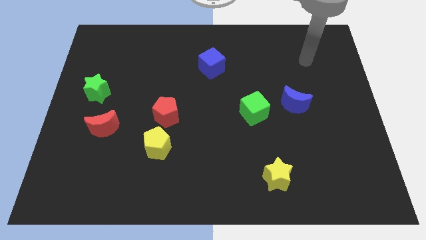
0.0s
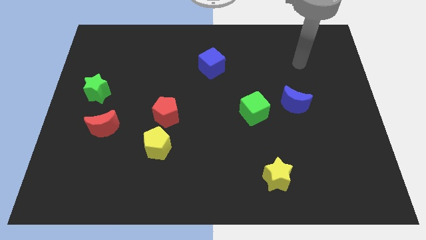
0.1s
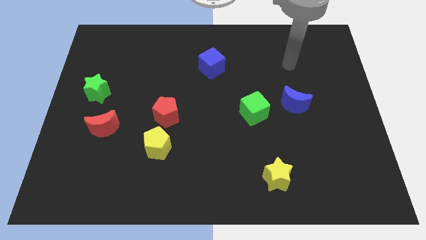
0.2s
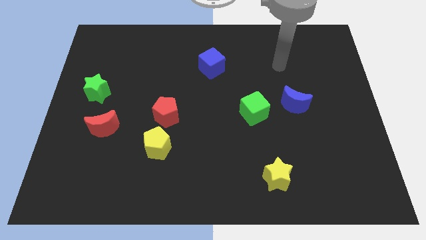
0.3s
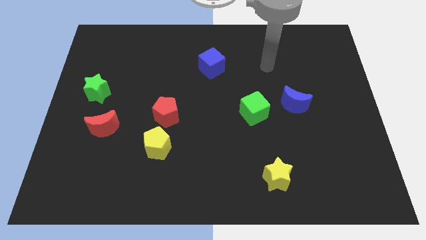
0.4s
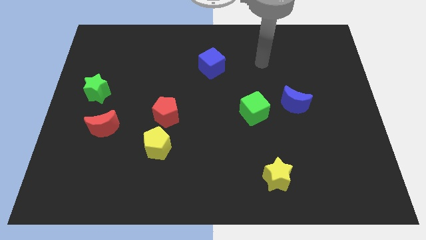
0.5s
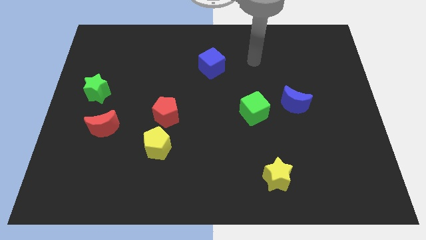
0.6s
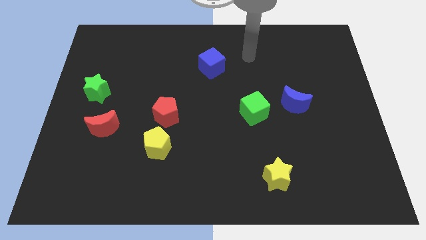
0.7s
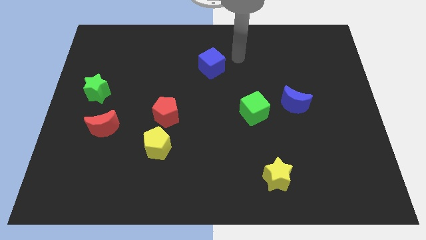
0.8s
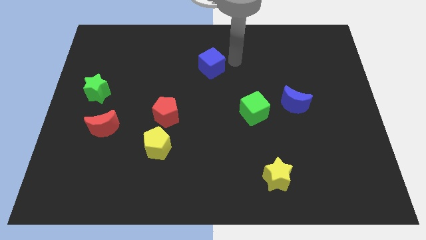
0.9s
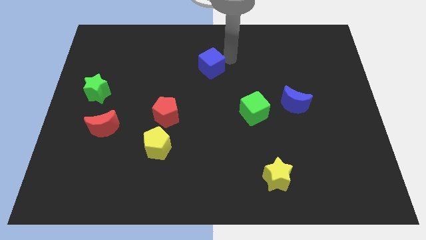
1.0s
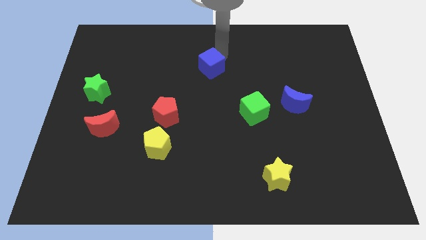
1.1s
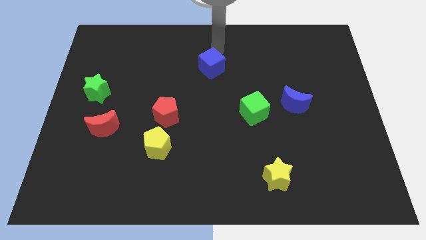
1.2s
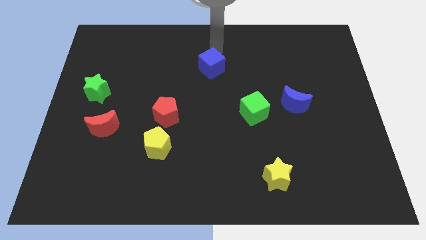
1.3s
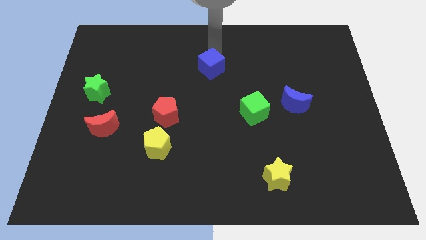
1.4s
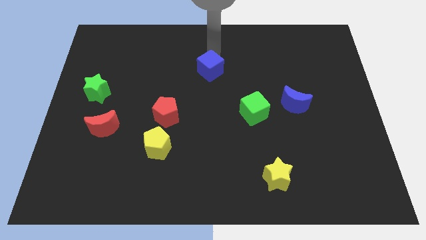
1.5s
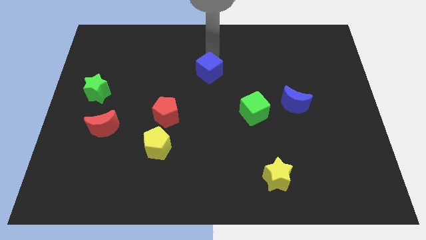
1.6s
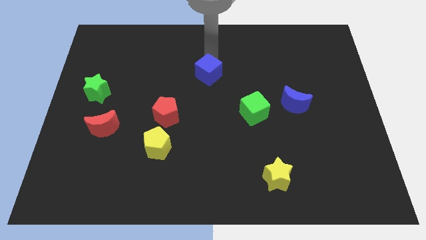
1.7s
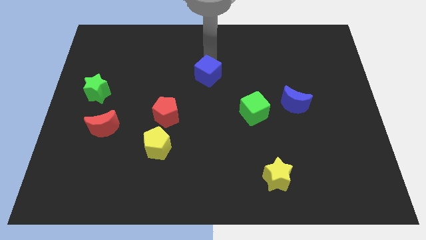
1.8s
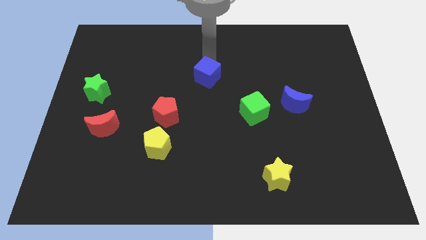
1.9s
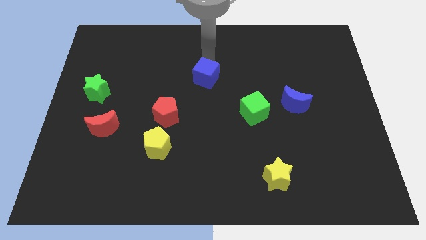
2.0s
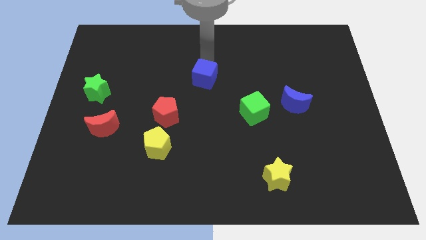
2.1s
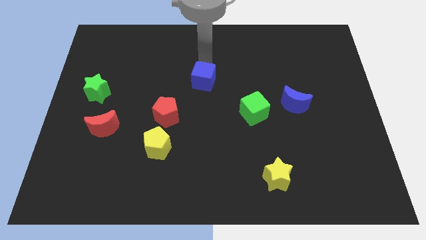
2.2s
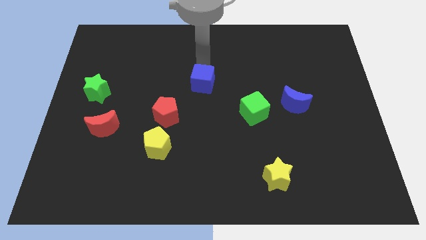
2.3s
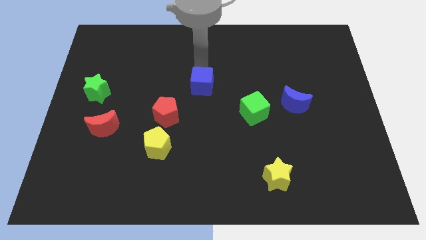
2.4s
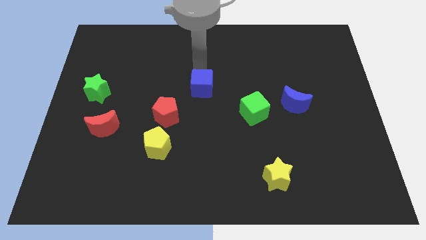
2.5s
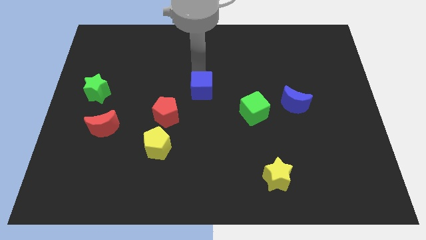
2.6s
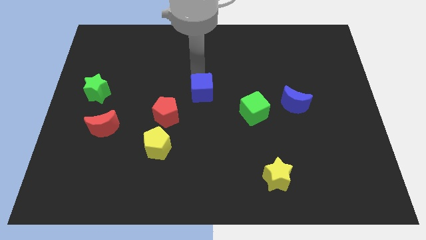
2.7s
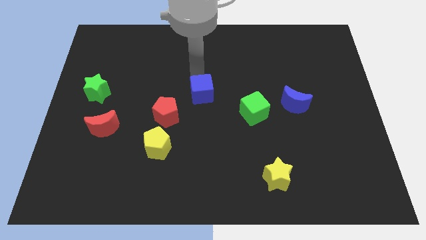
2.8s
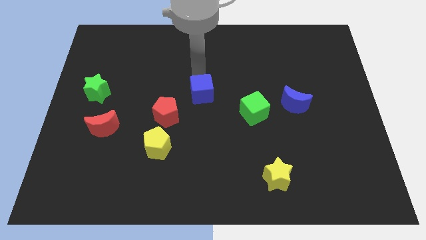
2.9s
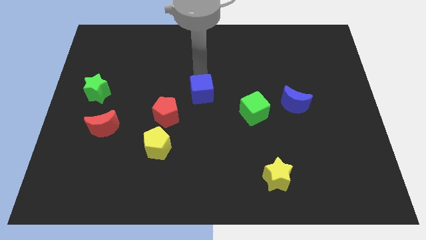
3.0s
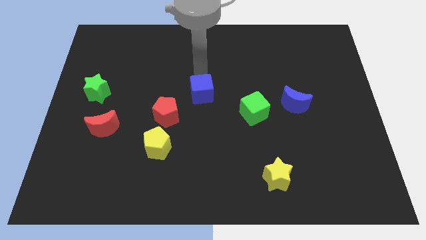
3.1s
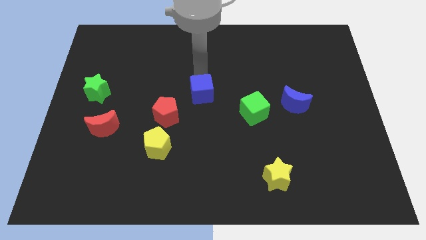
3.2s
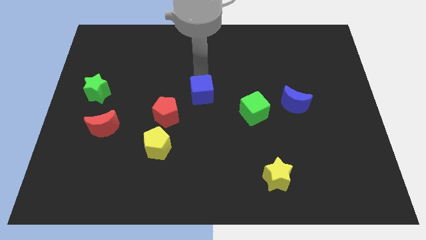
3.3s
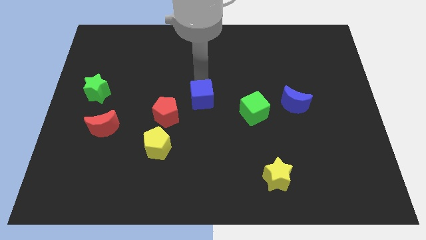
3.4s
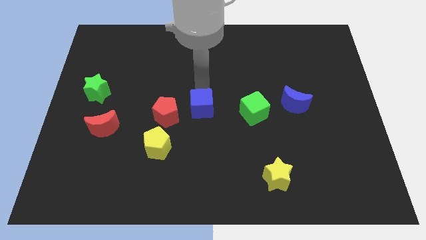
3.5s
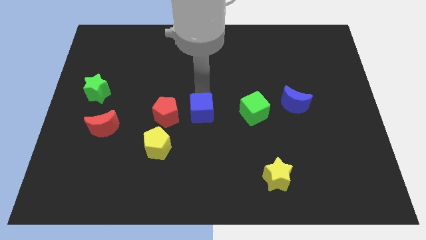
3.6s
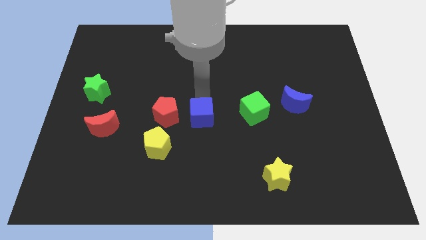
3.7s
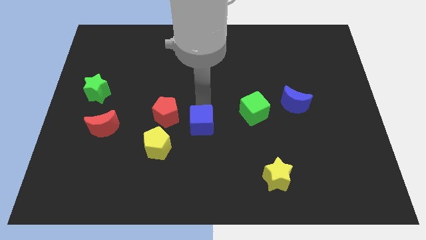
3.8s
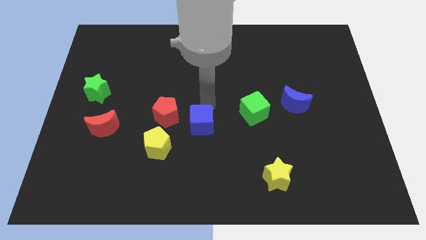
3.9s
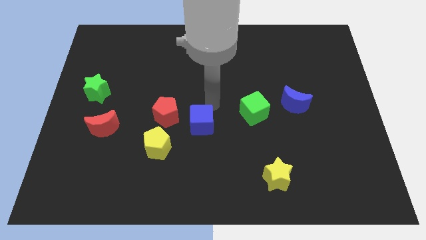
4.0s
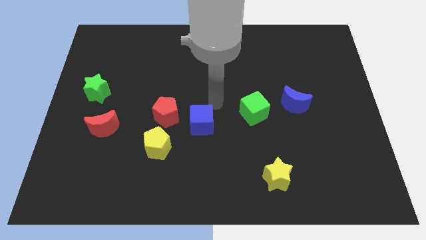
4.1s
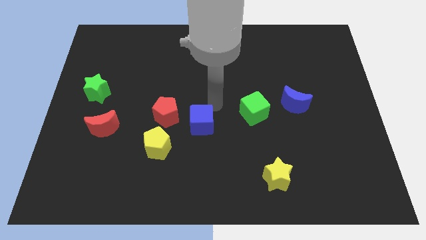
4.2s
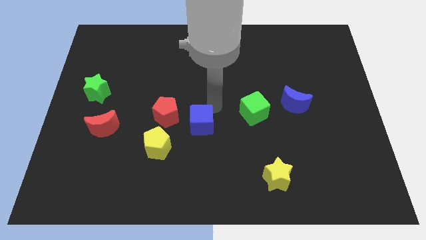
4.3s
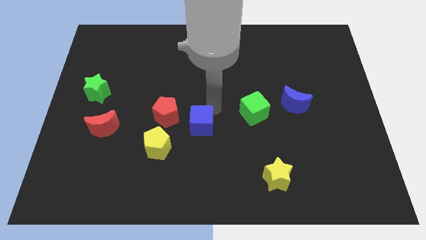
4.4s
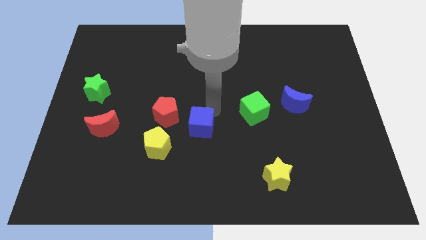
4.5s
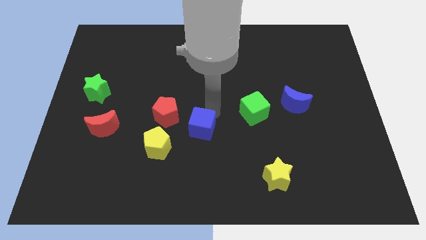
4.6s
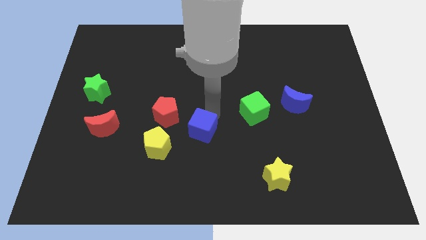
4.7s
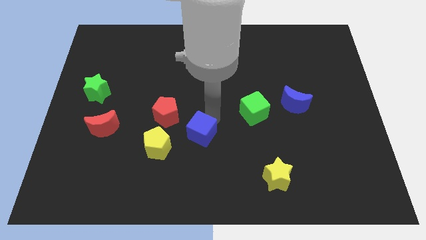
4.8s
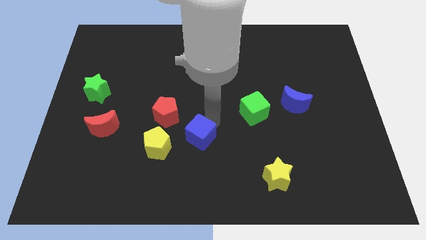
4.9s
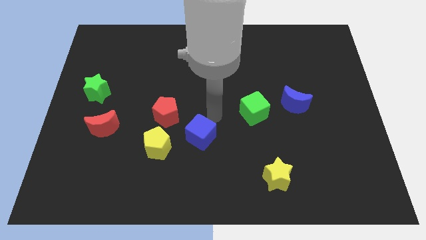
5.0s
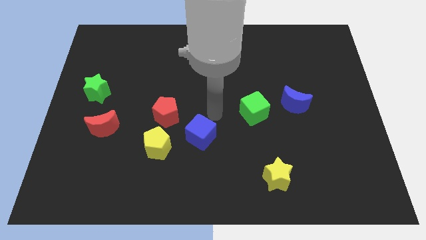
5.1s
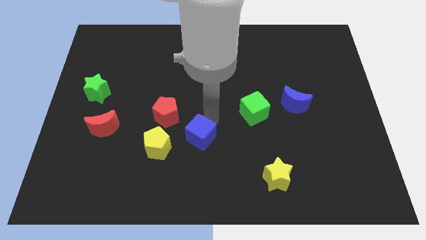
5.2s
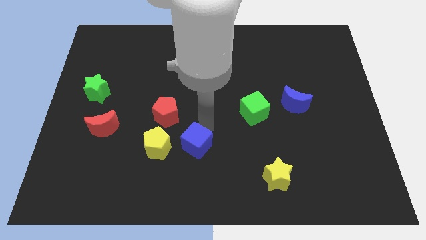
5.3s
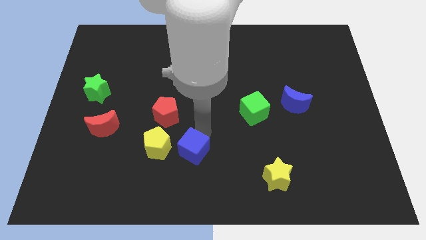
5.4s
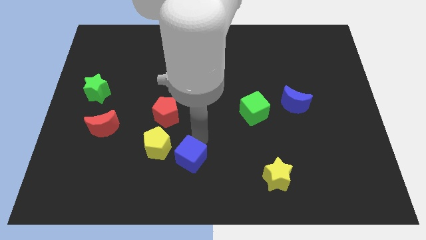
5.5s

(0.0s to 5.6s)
slide the blue cube diagonally down and to the right of the yellow pentagon

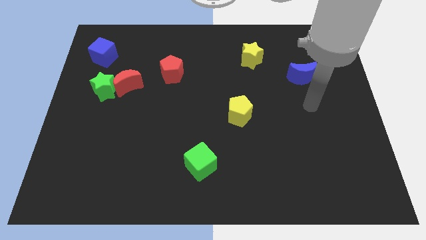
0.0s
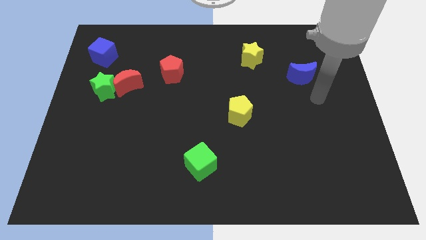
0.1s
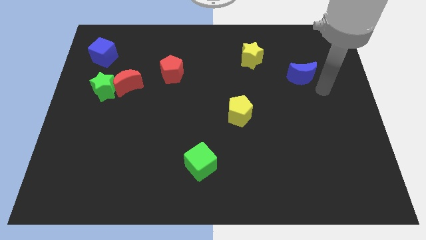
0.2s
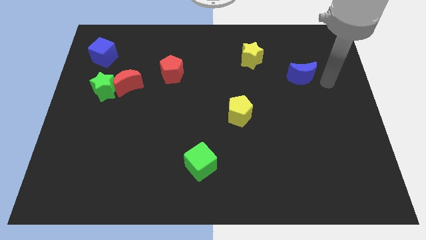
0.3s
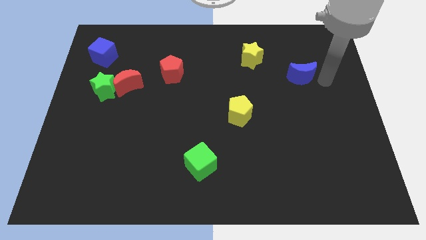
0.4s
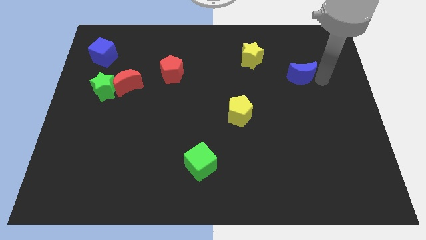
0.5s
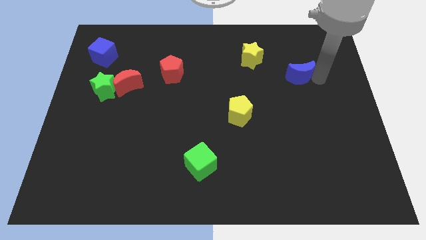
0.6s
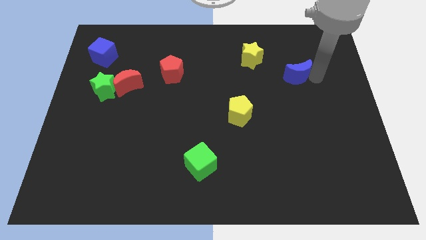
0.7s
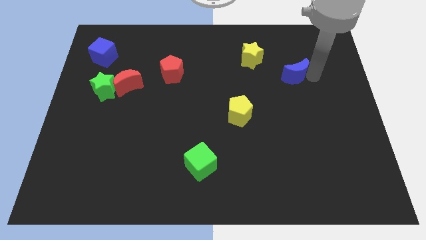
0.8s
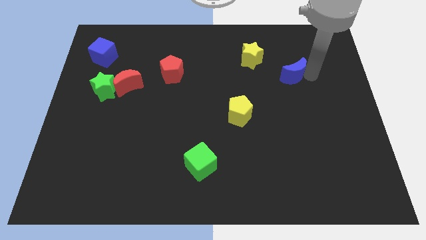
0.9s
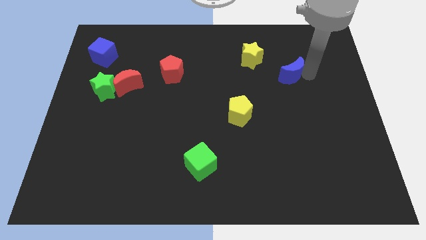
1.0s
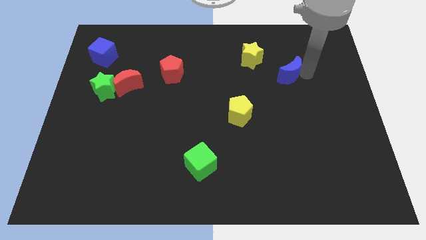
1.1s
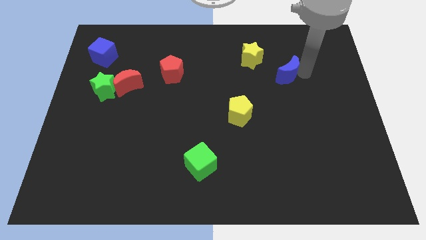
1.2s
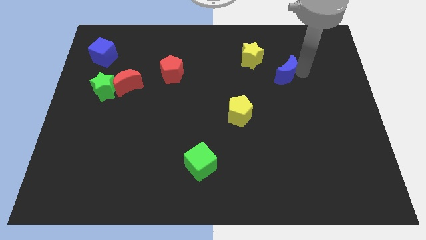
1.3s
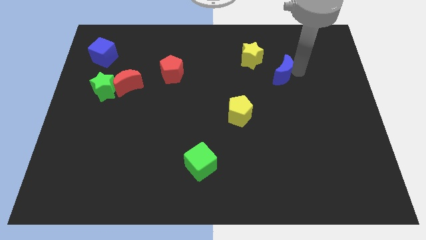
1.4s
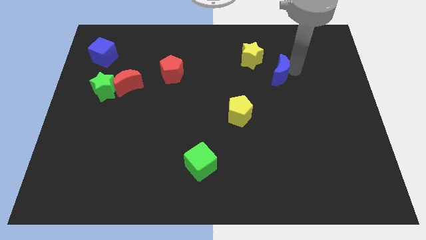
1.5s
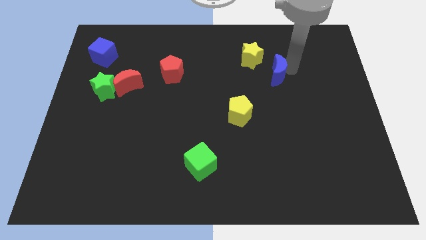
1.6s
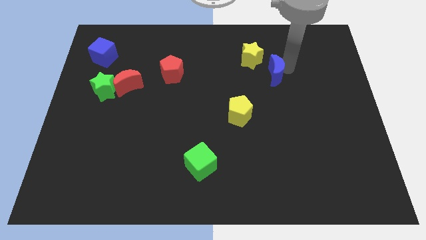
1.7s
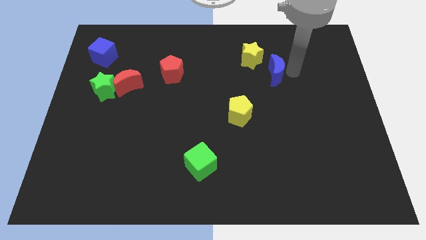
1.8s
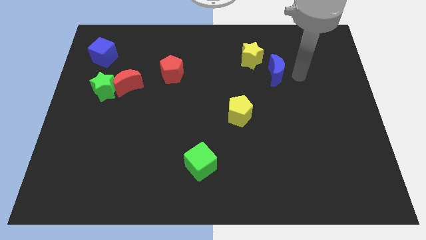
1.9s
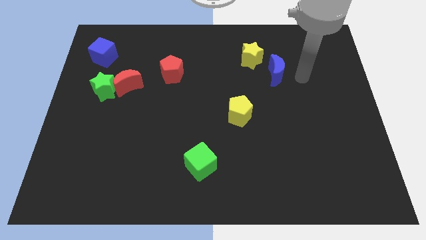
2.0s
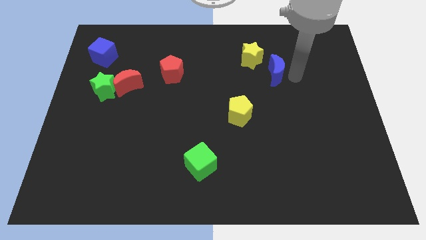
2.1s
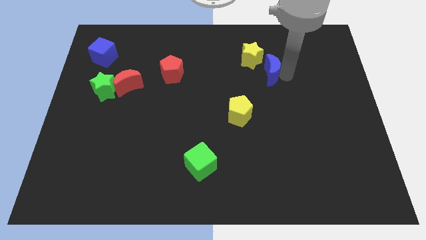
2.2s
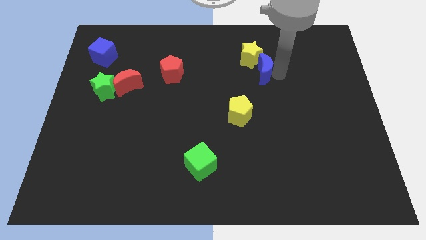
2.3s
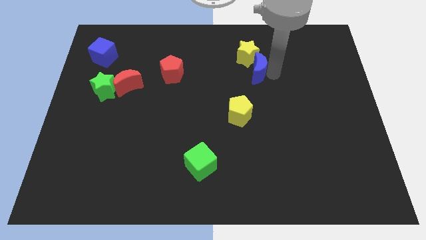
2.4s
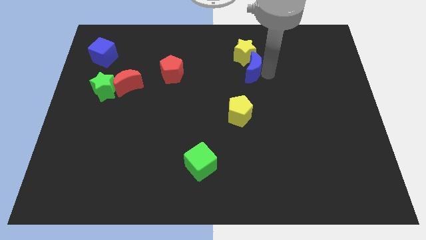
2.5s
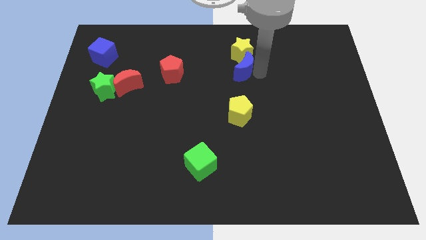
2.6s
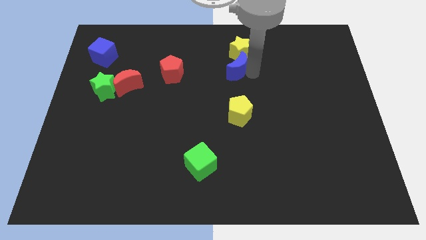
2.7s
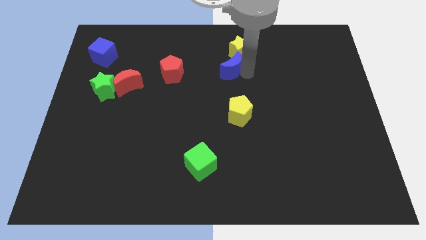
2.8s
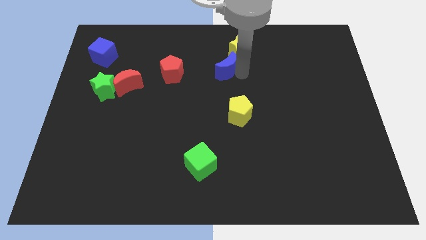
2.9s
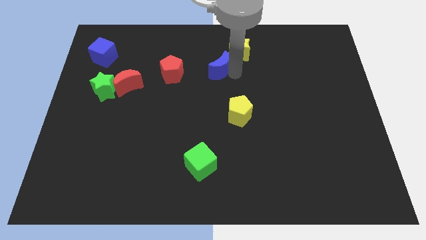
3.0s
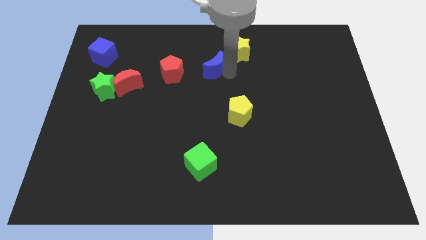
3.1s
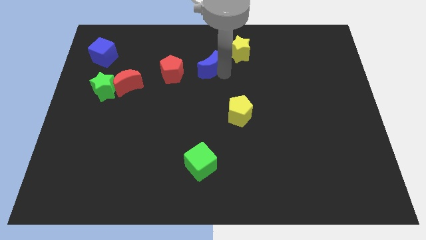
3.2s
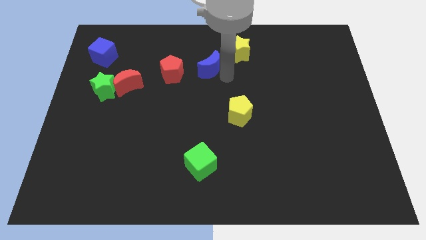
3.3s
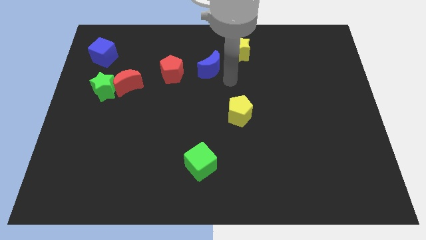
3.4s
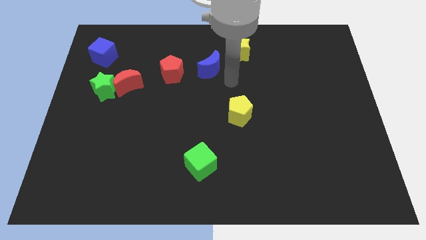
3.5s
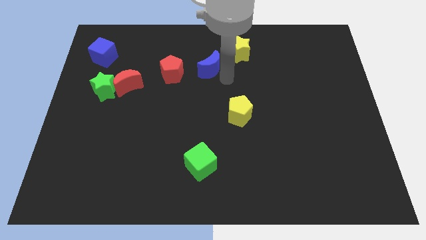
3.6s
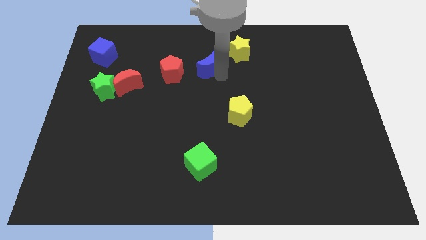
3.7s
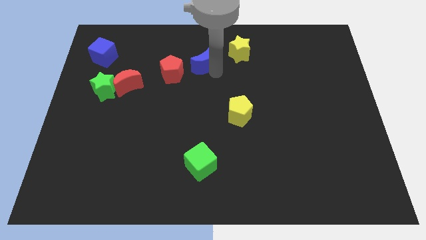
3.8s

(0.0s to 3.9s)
slide the blue moon to the top right side of the red pentagon
